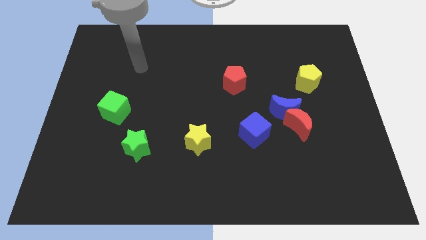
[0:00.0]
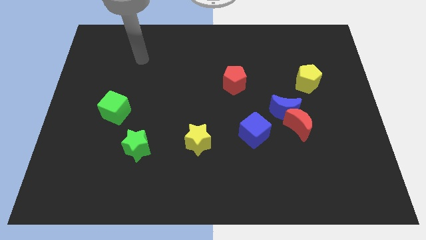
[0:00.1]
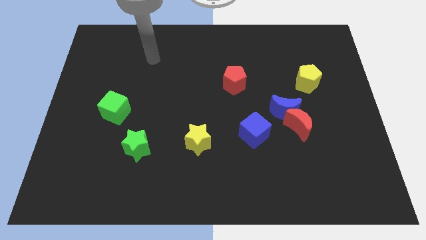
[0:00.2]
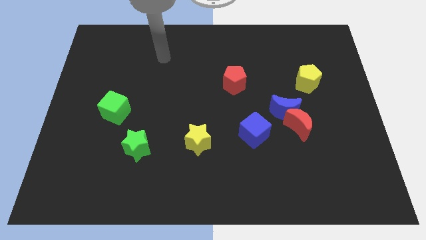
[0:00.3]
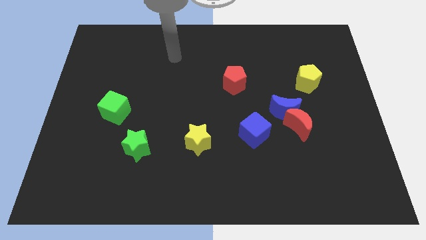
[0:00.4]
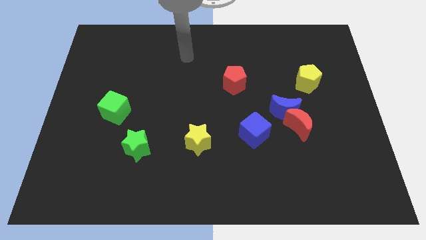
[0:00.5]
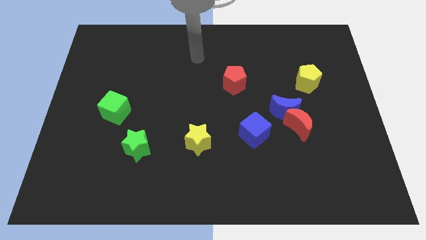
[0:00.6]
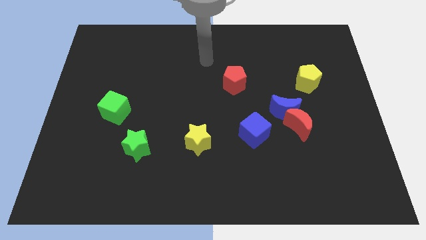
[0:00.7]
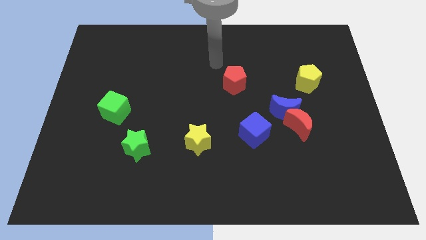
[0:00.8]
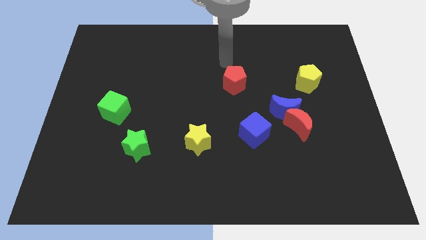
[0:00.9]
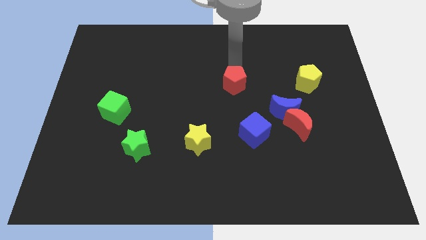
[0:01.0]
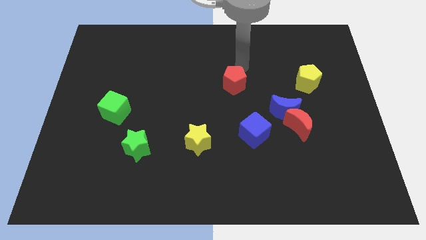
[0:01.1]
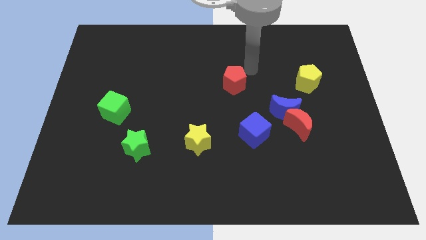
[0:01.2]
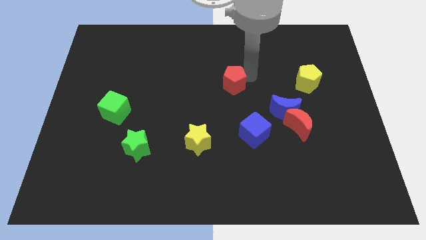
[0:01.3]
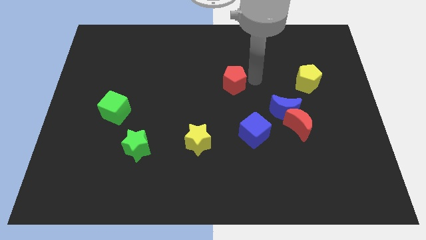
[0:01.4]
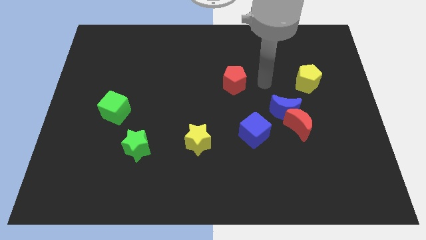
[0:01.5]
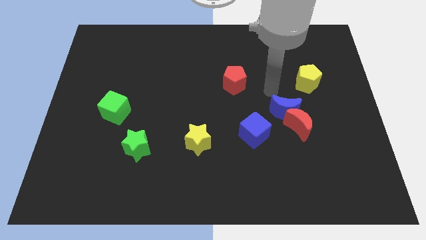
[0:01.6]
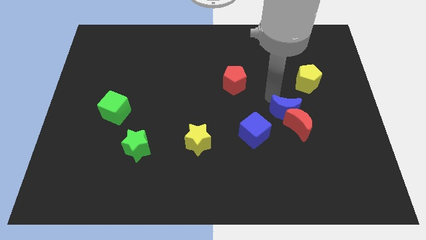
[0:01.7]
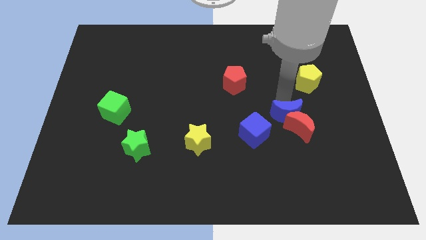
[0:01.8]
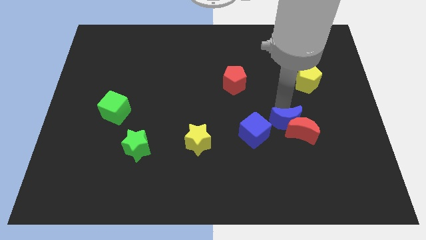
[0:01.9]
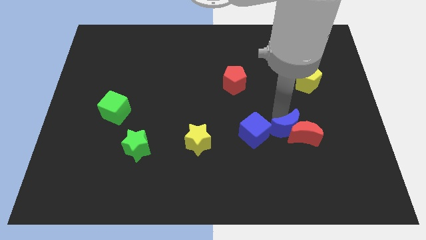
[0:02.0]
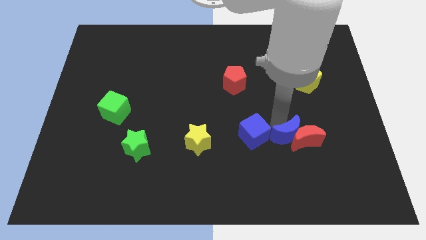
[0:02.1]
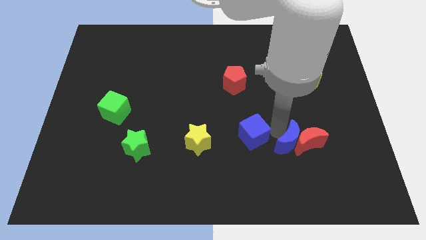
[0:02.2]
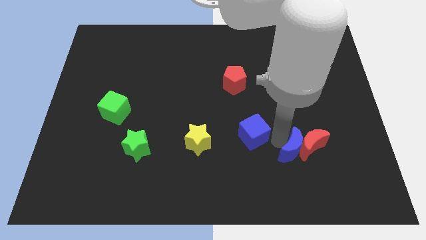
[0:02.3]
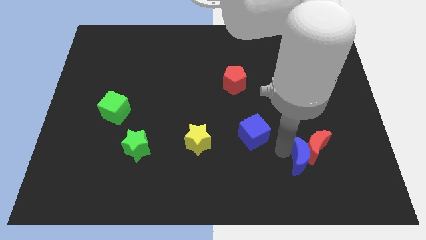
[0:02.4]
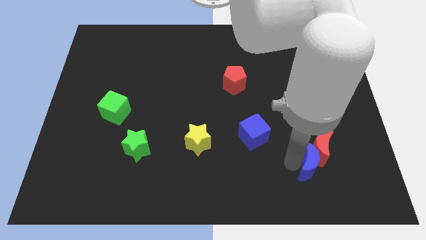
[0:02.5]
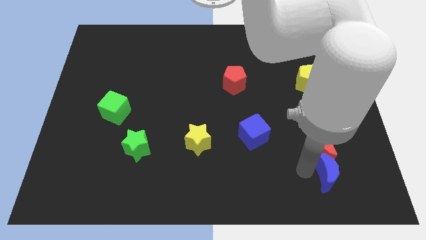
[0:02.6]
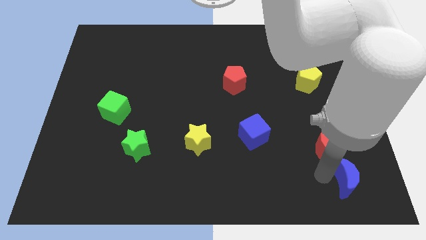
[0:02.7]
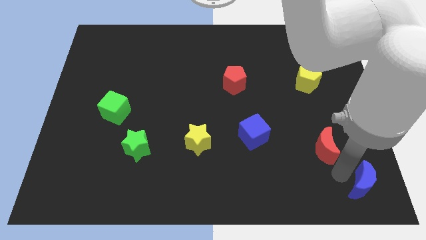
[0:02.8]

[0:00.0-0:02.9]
separate the red moon from the blue moon

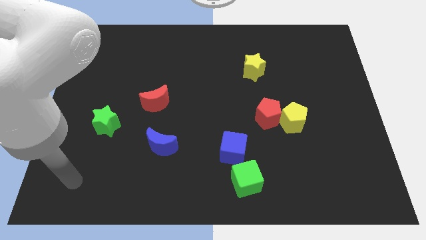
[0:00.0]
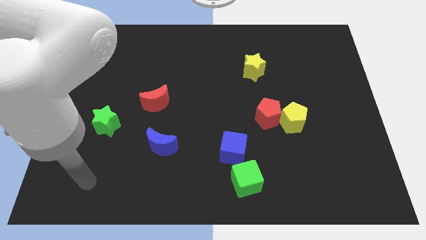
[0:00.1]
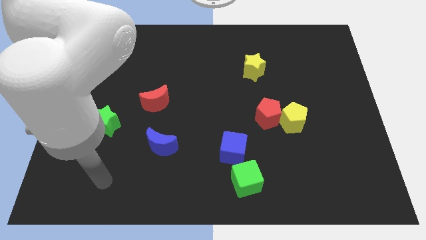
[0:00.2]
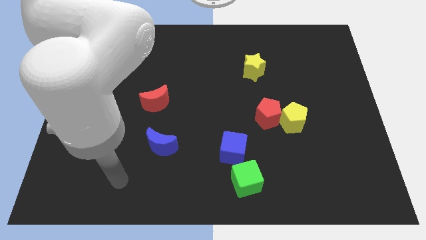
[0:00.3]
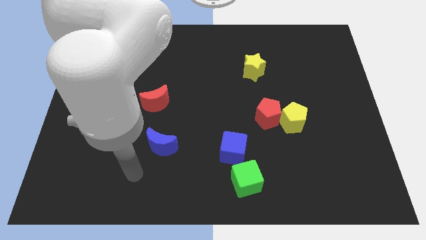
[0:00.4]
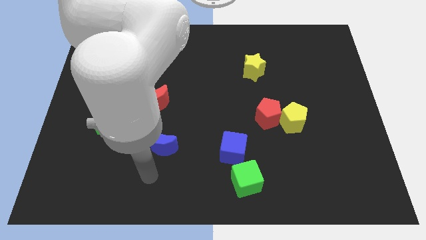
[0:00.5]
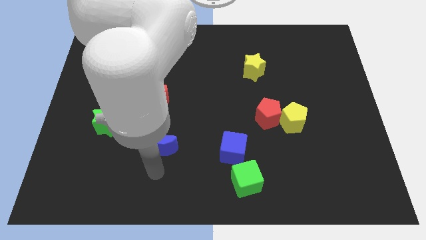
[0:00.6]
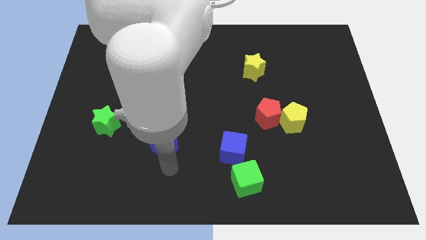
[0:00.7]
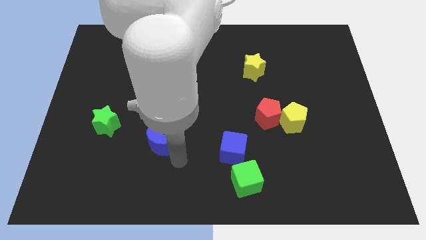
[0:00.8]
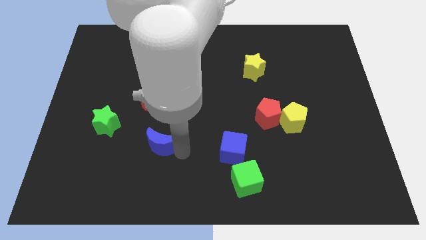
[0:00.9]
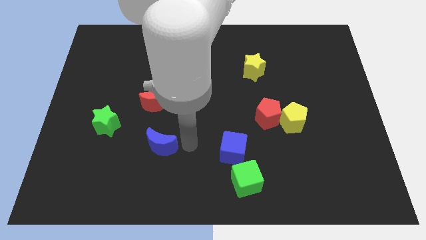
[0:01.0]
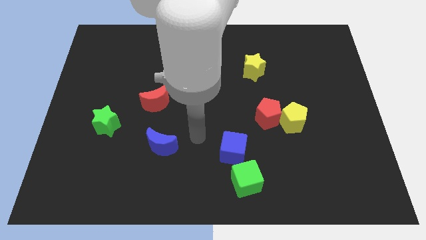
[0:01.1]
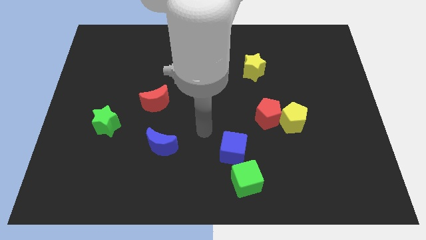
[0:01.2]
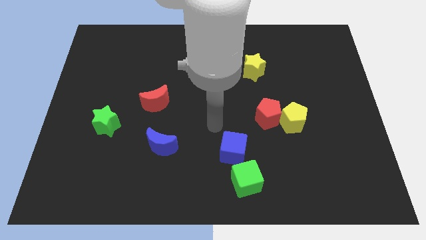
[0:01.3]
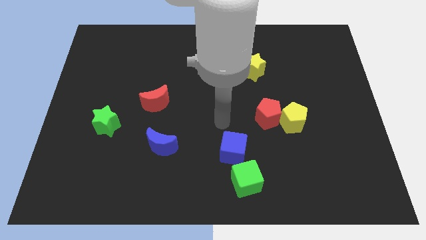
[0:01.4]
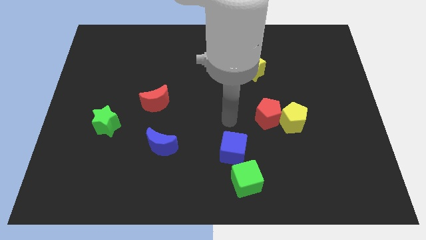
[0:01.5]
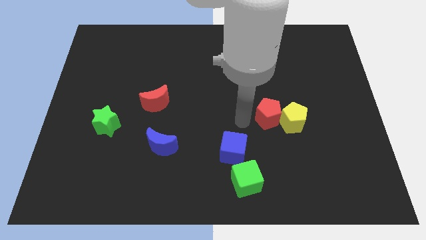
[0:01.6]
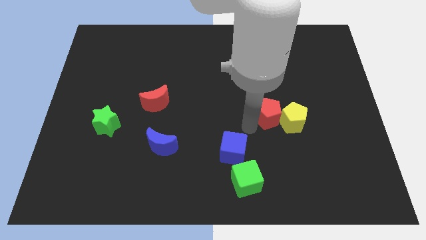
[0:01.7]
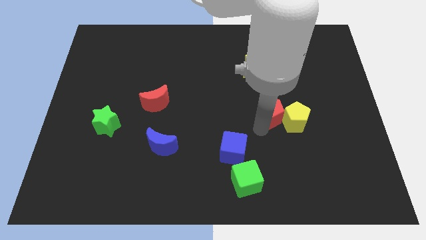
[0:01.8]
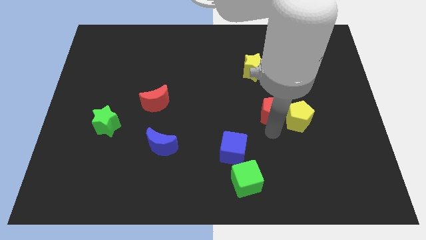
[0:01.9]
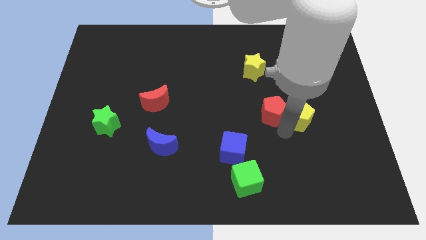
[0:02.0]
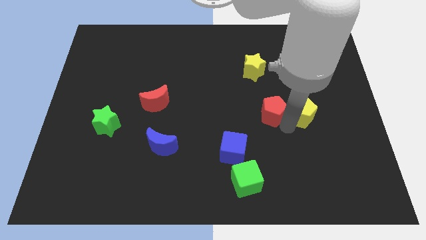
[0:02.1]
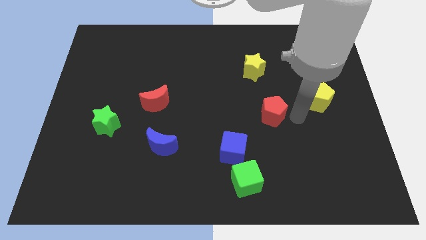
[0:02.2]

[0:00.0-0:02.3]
separate the red pentagon from the yellow pentagon

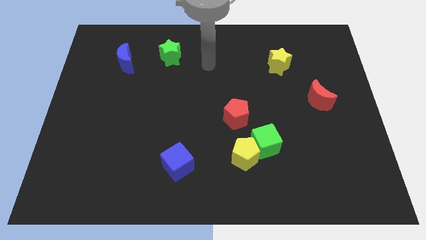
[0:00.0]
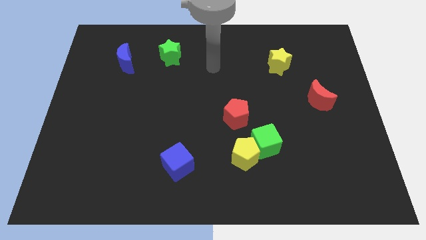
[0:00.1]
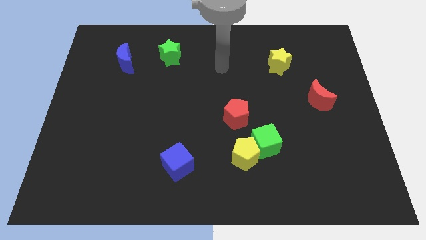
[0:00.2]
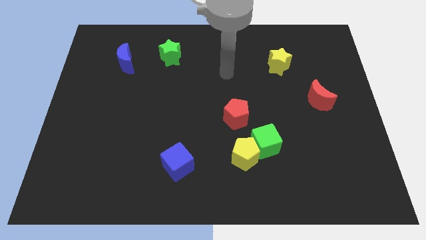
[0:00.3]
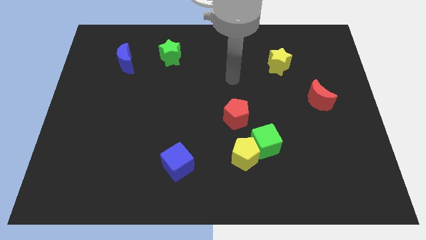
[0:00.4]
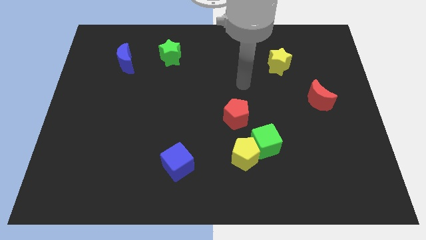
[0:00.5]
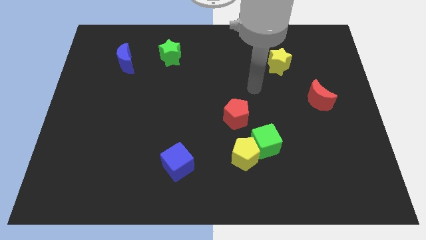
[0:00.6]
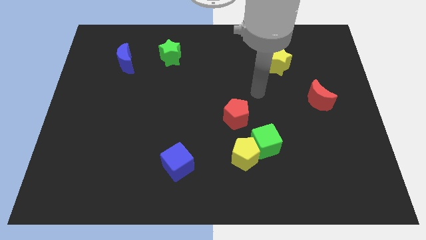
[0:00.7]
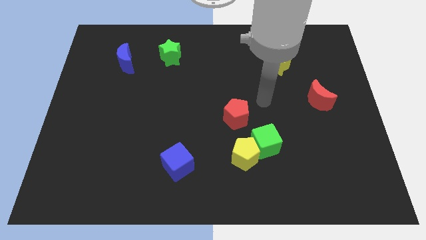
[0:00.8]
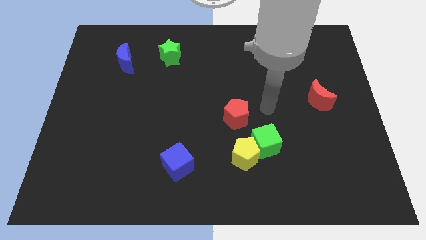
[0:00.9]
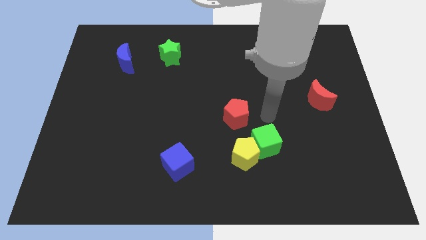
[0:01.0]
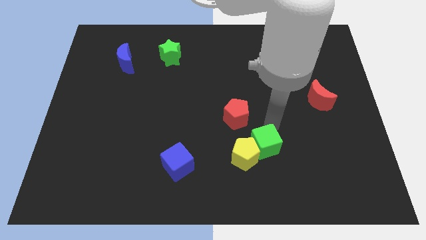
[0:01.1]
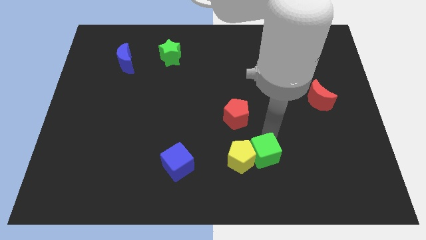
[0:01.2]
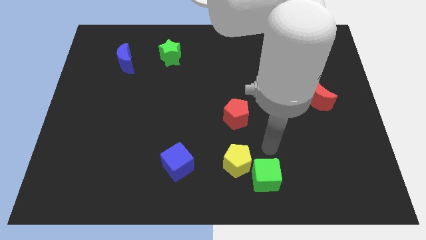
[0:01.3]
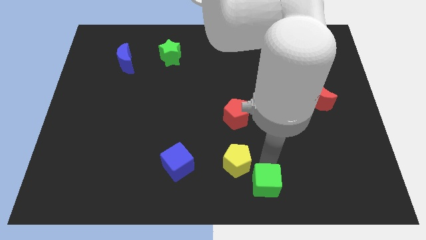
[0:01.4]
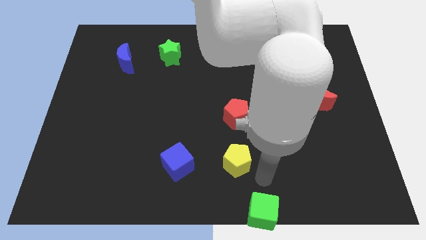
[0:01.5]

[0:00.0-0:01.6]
pull the yellow pentagon apart from the green cube

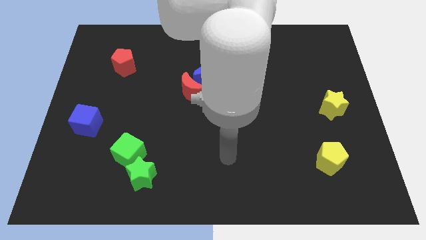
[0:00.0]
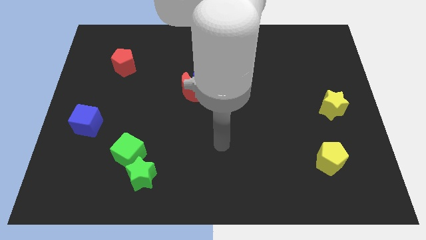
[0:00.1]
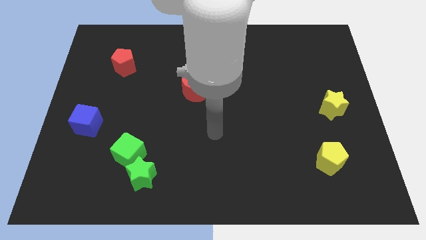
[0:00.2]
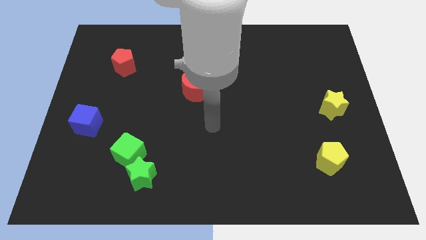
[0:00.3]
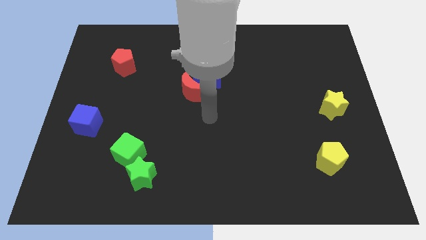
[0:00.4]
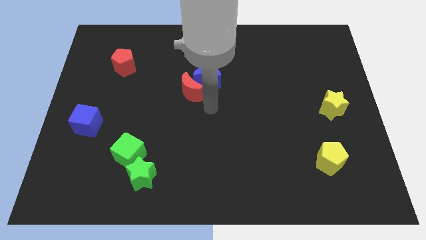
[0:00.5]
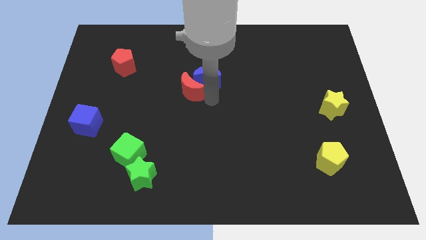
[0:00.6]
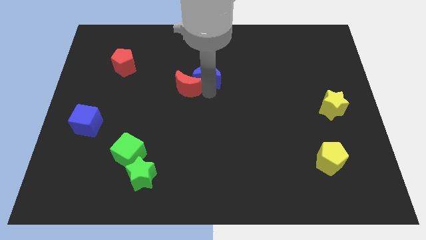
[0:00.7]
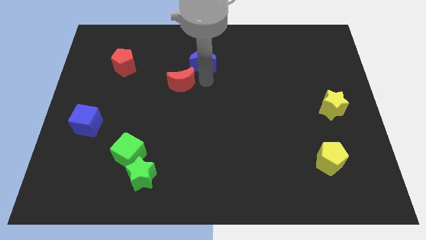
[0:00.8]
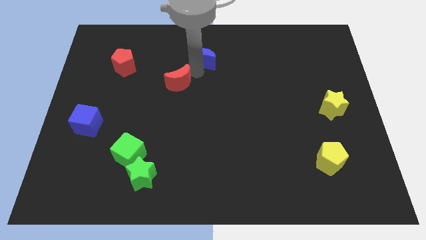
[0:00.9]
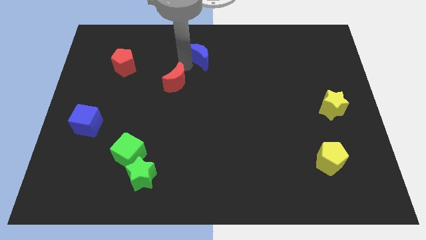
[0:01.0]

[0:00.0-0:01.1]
pull the red moon apart from the blue moon

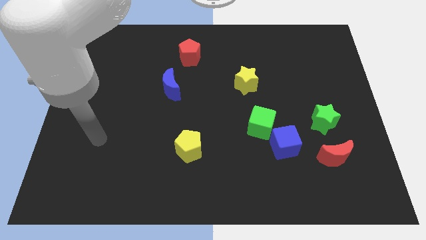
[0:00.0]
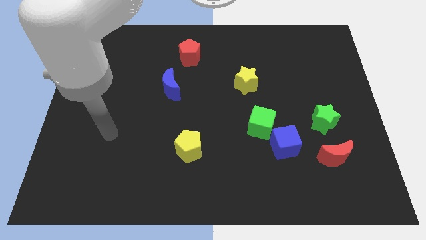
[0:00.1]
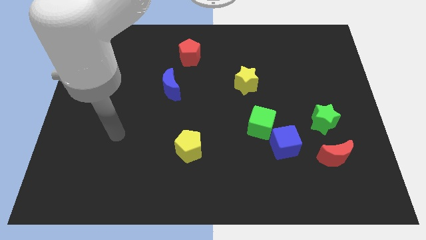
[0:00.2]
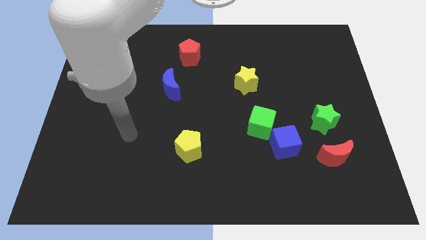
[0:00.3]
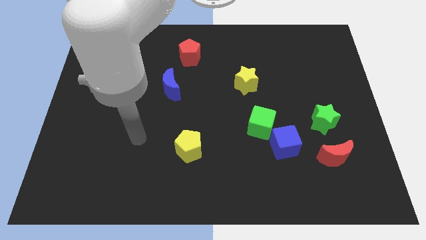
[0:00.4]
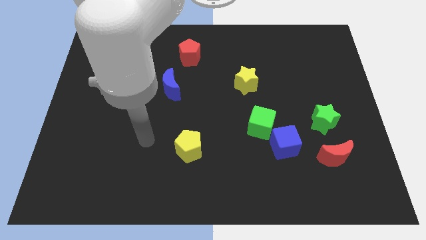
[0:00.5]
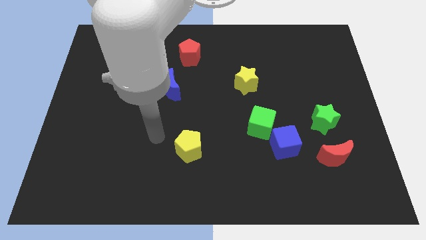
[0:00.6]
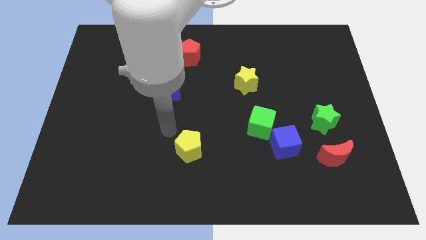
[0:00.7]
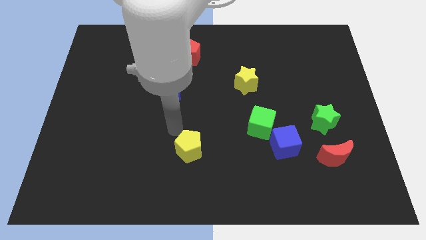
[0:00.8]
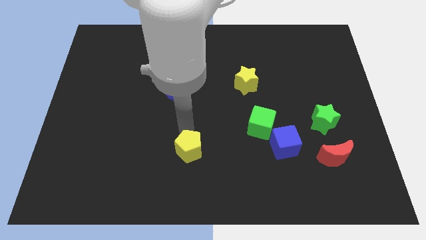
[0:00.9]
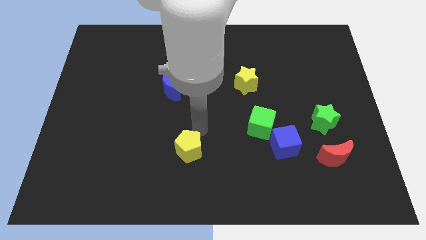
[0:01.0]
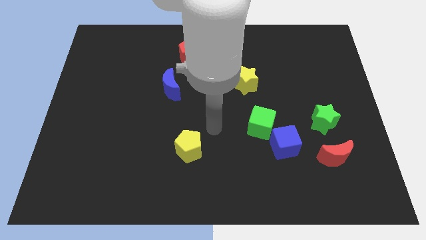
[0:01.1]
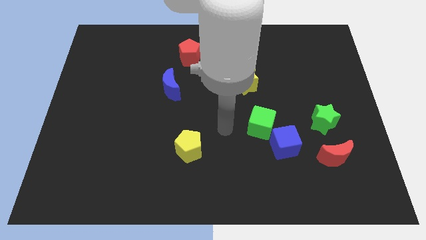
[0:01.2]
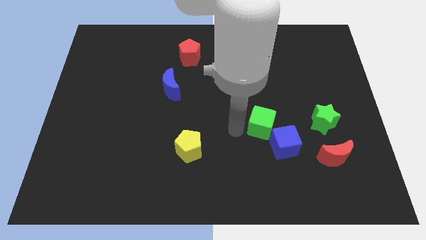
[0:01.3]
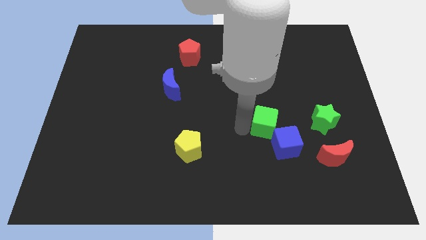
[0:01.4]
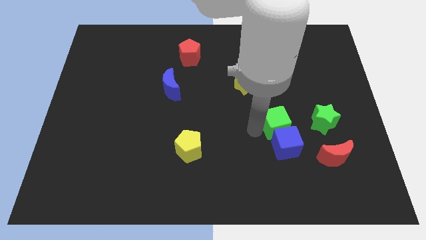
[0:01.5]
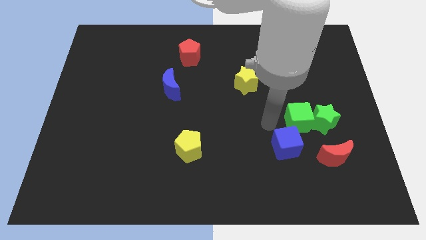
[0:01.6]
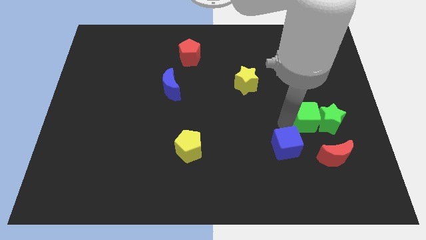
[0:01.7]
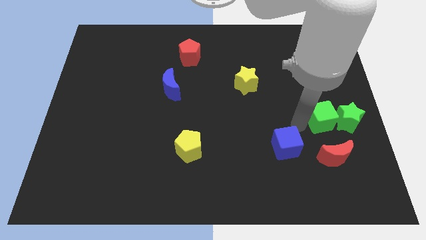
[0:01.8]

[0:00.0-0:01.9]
separate the blue cube from the green cube
